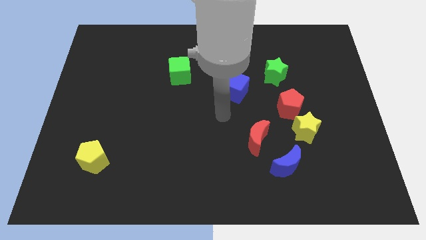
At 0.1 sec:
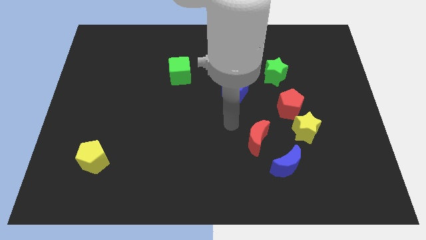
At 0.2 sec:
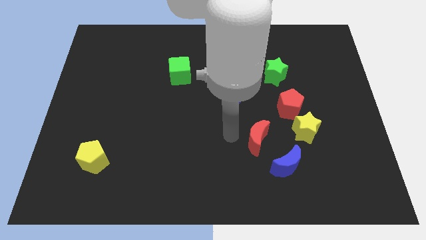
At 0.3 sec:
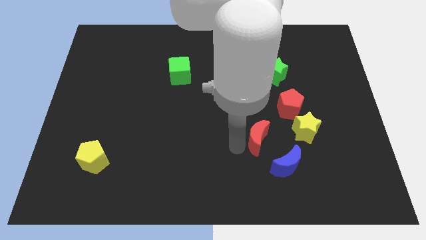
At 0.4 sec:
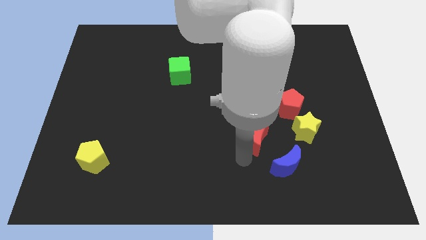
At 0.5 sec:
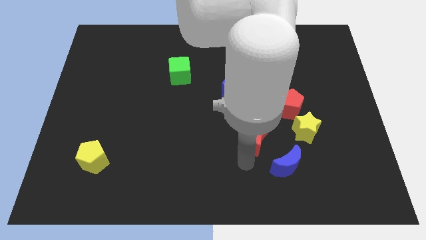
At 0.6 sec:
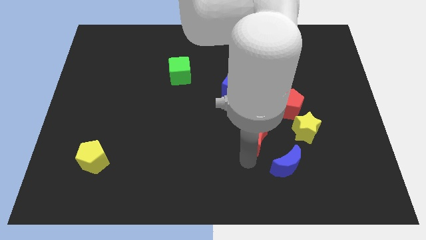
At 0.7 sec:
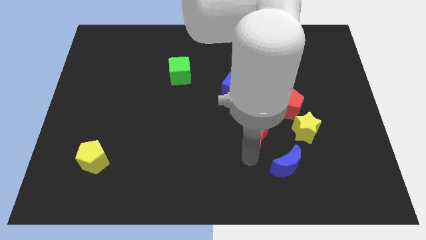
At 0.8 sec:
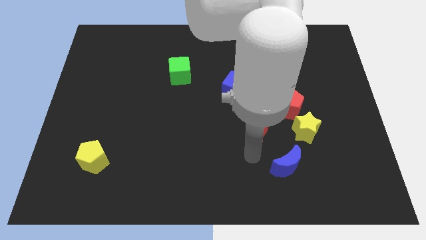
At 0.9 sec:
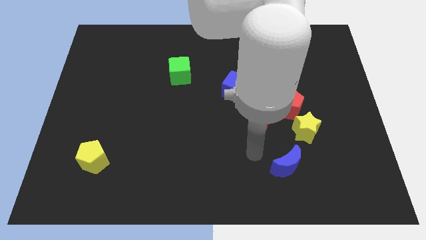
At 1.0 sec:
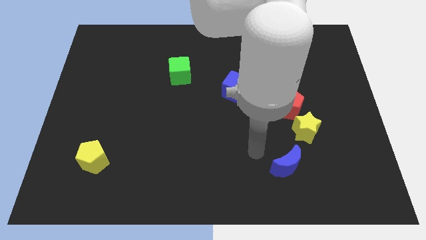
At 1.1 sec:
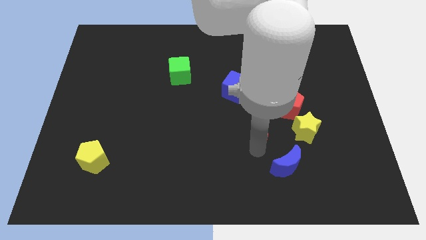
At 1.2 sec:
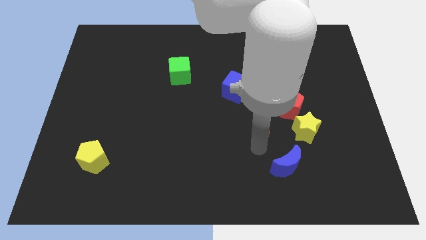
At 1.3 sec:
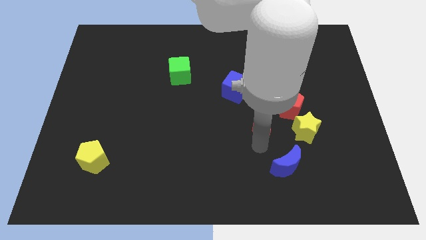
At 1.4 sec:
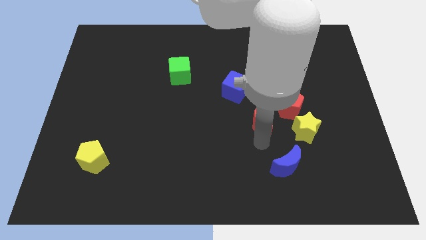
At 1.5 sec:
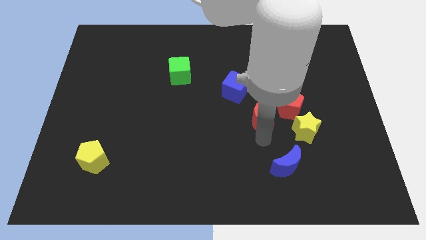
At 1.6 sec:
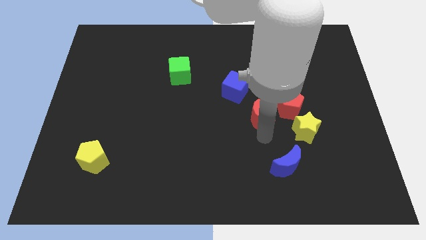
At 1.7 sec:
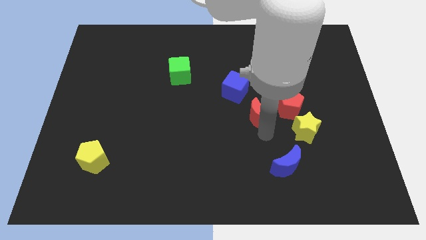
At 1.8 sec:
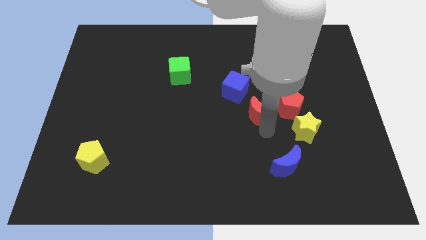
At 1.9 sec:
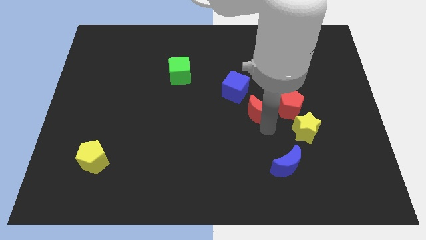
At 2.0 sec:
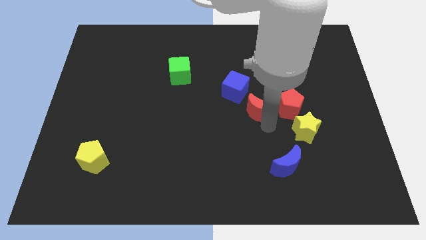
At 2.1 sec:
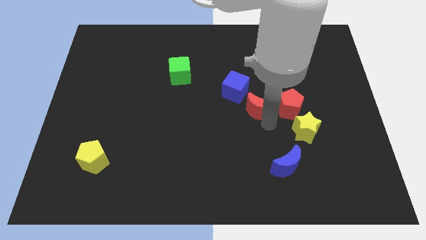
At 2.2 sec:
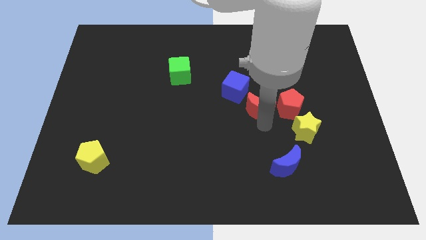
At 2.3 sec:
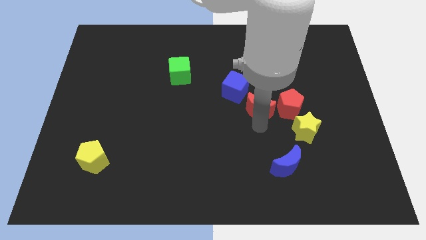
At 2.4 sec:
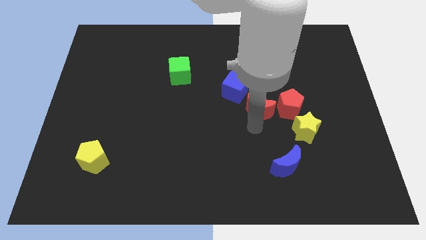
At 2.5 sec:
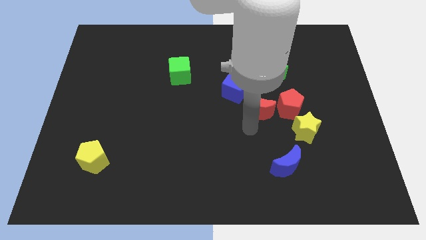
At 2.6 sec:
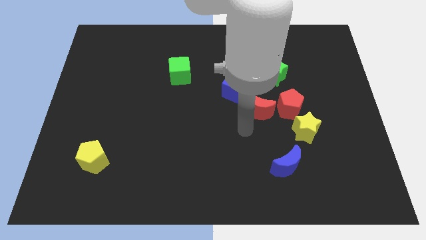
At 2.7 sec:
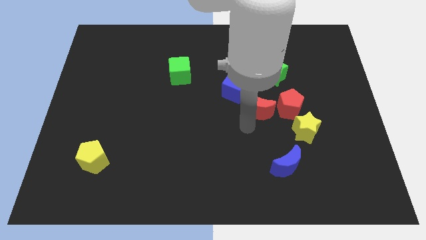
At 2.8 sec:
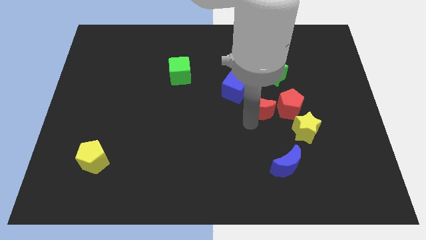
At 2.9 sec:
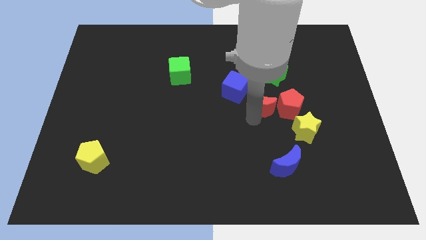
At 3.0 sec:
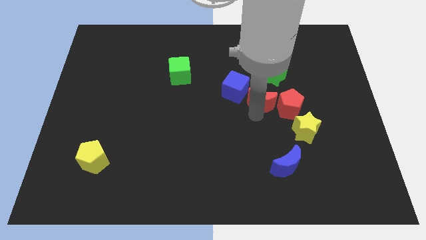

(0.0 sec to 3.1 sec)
move the red moon a little upwards and right diagonally

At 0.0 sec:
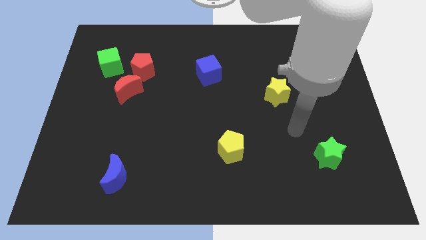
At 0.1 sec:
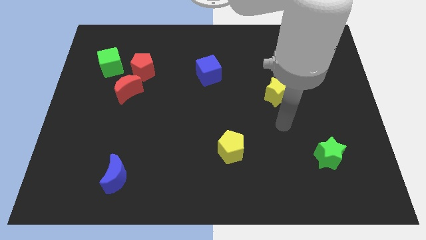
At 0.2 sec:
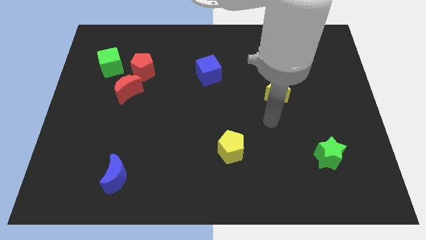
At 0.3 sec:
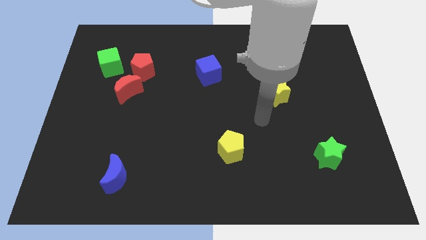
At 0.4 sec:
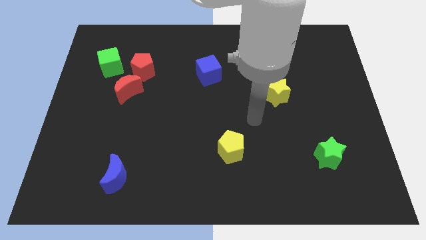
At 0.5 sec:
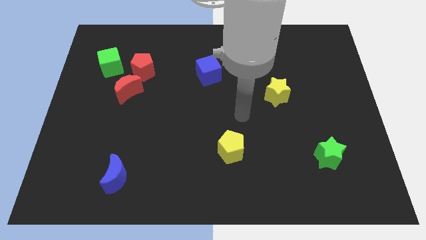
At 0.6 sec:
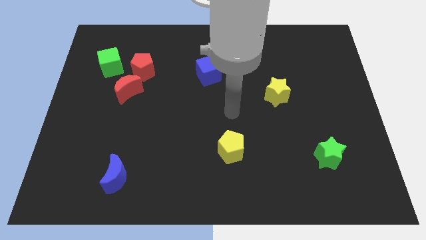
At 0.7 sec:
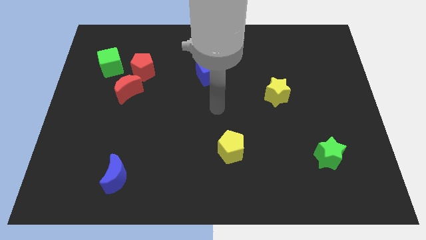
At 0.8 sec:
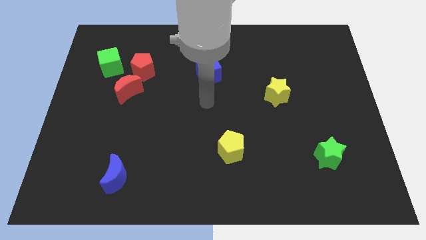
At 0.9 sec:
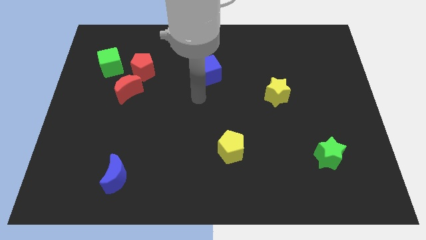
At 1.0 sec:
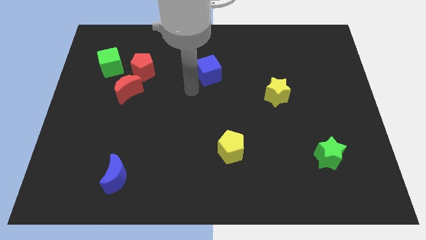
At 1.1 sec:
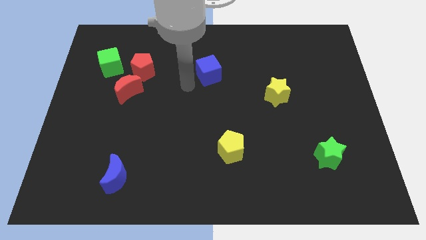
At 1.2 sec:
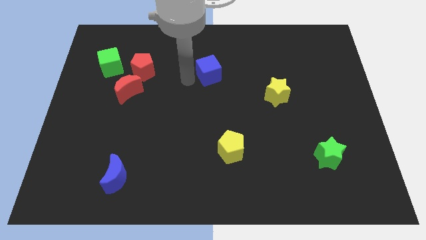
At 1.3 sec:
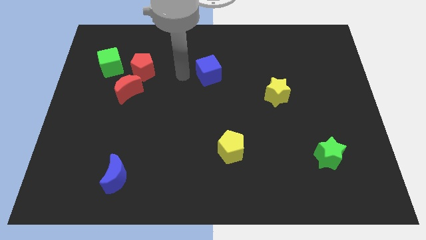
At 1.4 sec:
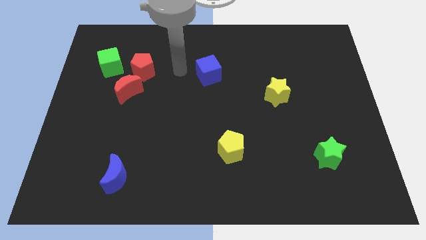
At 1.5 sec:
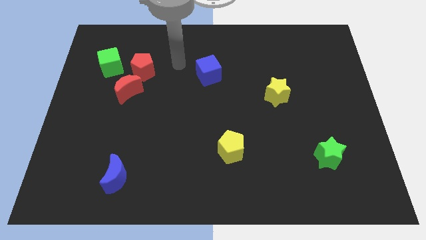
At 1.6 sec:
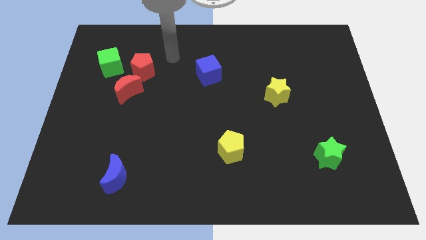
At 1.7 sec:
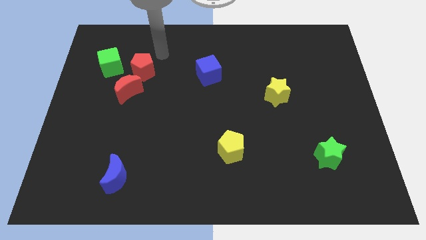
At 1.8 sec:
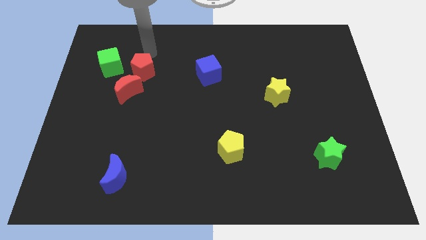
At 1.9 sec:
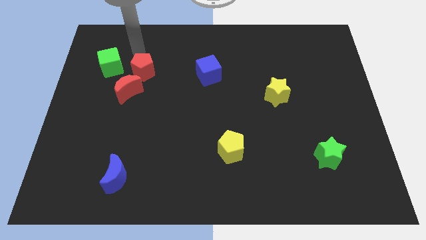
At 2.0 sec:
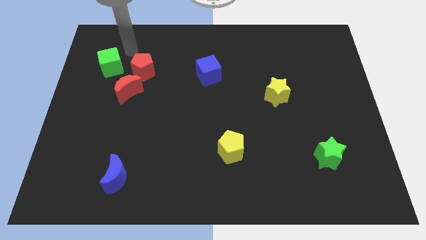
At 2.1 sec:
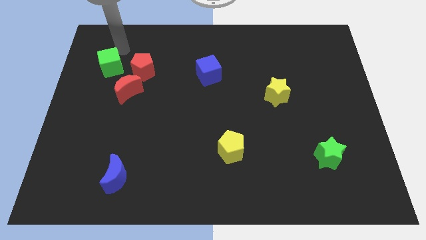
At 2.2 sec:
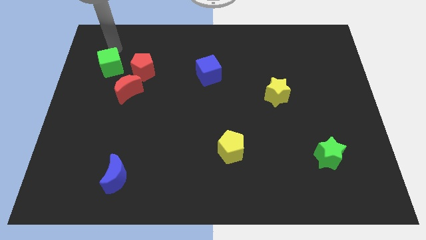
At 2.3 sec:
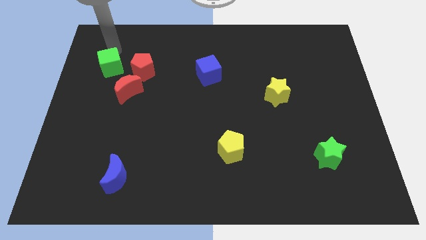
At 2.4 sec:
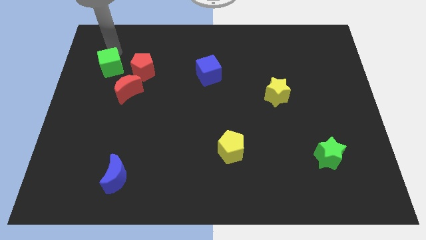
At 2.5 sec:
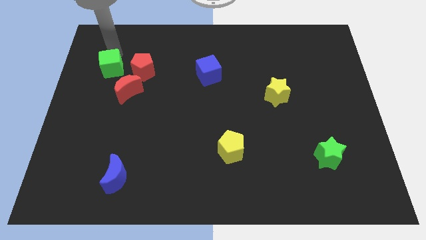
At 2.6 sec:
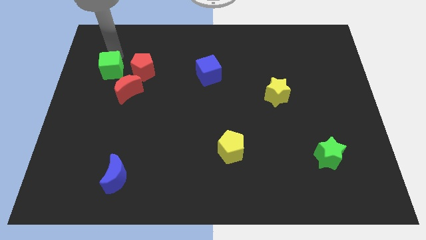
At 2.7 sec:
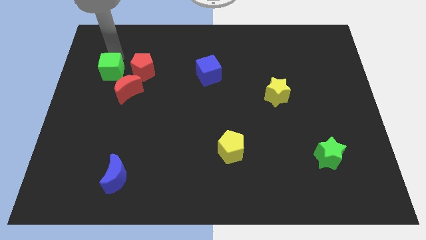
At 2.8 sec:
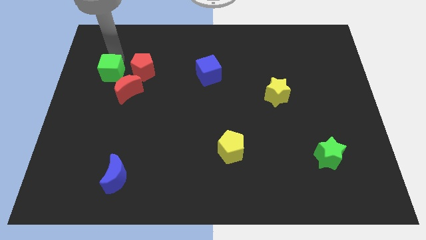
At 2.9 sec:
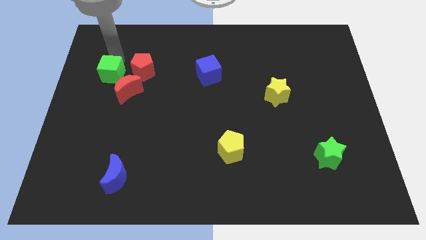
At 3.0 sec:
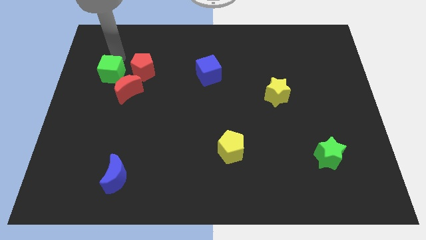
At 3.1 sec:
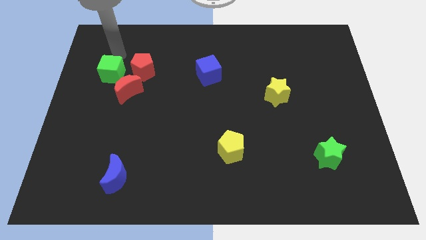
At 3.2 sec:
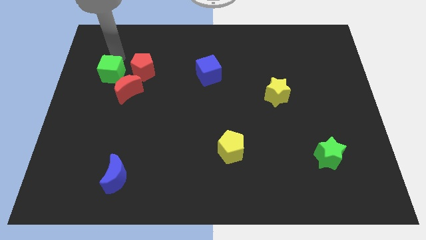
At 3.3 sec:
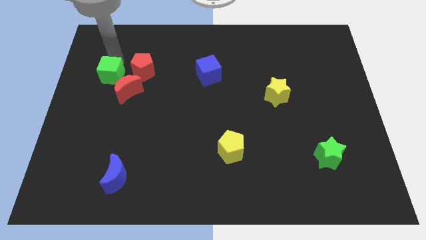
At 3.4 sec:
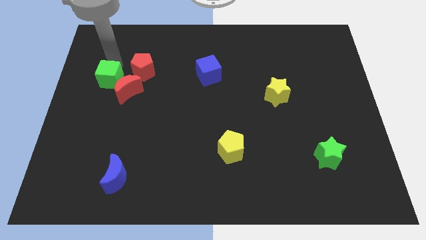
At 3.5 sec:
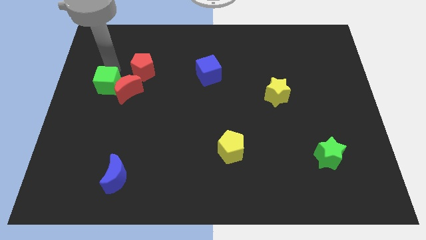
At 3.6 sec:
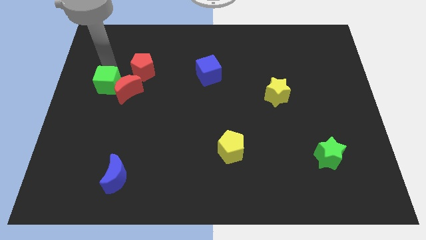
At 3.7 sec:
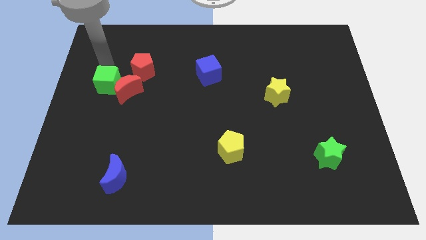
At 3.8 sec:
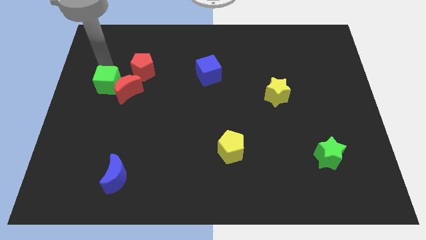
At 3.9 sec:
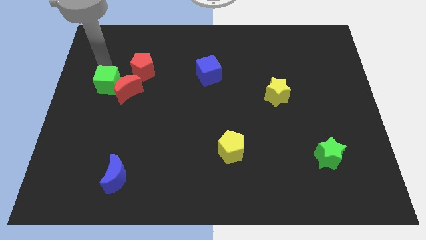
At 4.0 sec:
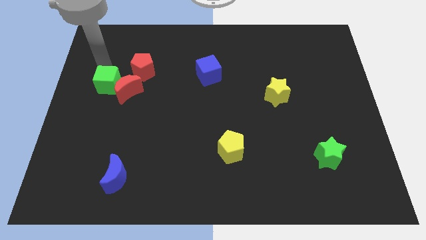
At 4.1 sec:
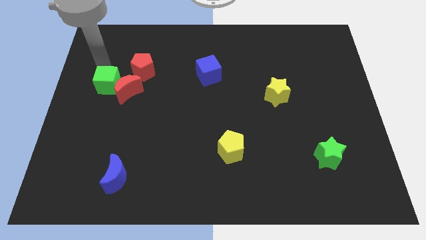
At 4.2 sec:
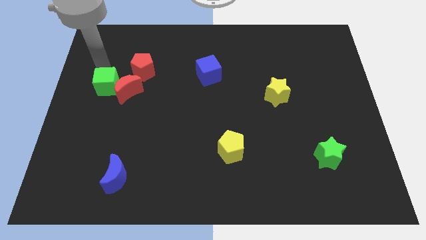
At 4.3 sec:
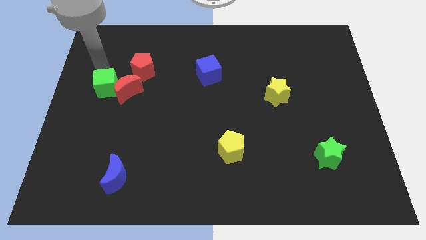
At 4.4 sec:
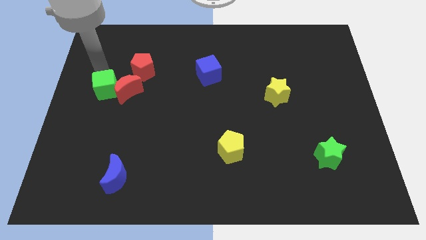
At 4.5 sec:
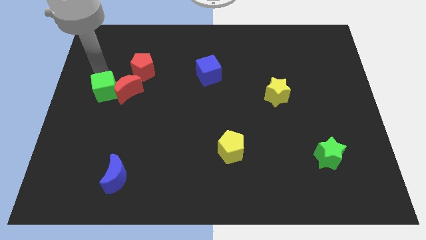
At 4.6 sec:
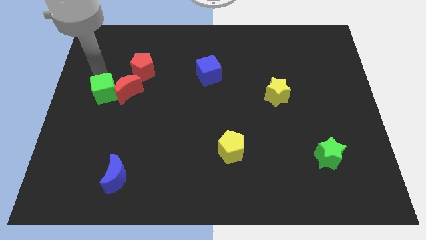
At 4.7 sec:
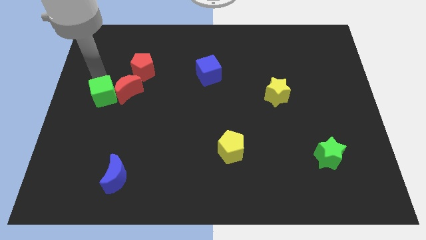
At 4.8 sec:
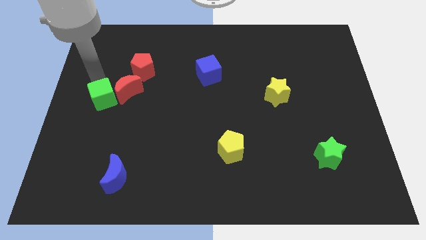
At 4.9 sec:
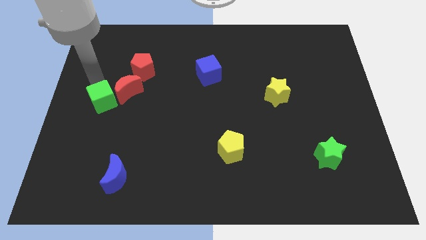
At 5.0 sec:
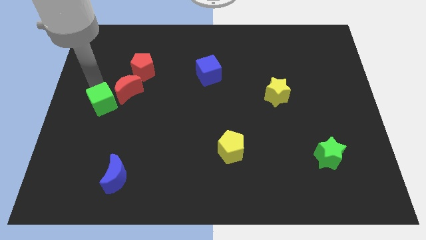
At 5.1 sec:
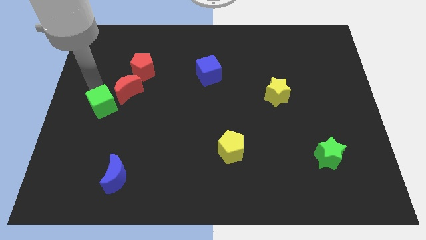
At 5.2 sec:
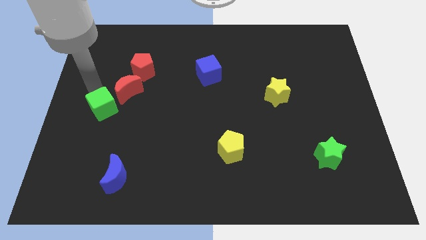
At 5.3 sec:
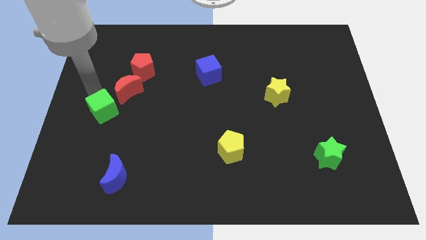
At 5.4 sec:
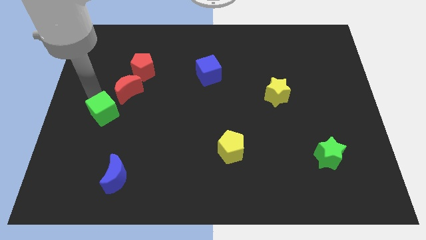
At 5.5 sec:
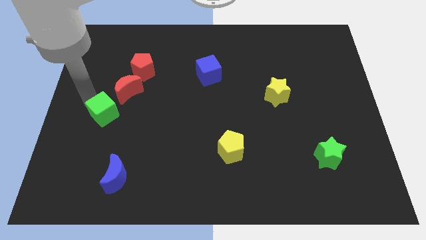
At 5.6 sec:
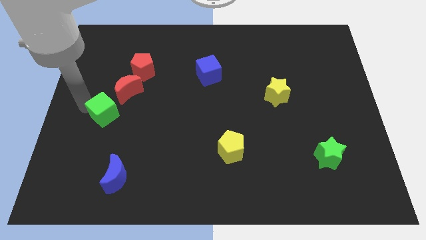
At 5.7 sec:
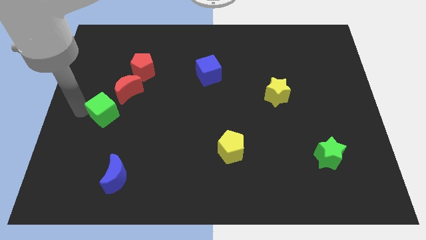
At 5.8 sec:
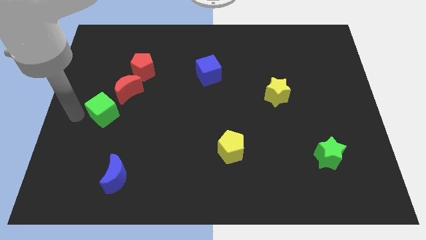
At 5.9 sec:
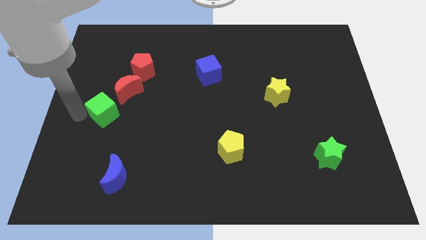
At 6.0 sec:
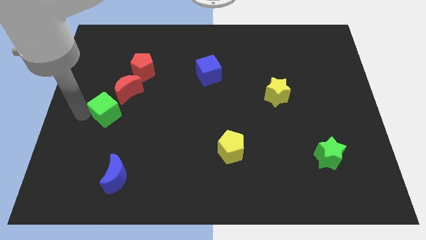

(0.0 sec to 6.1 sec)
move the green cube downwards and then right somewhat
